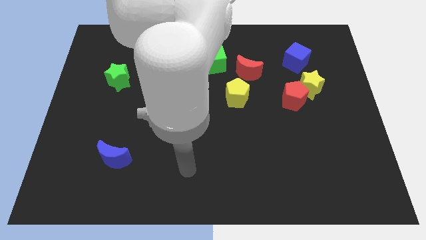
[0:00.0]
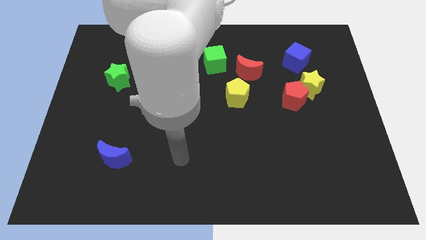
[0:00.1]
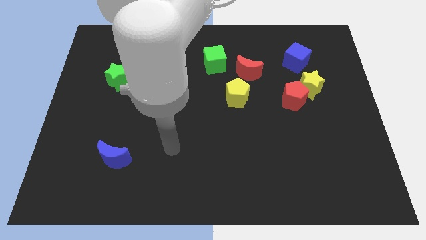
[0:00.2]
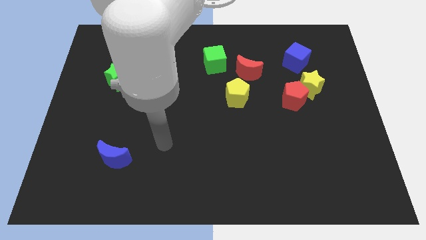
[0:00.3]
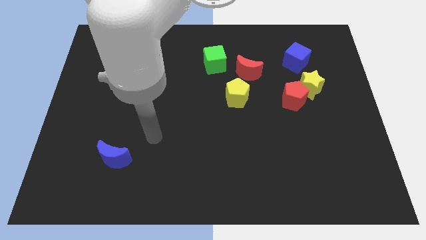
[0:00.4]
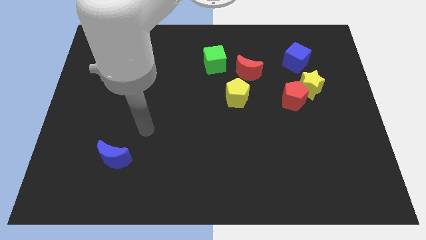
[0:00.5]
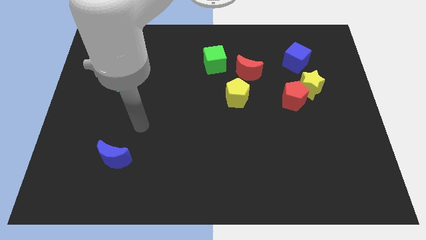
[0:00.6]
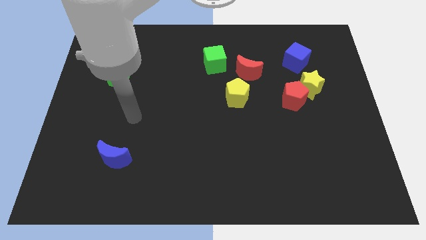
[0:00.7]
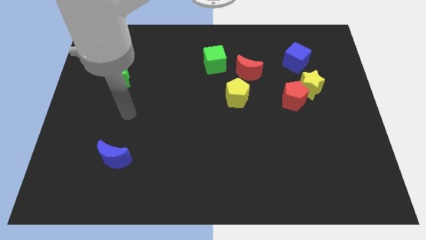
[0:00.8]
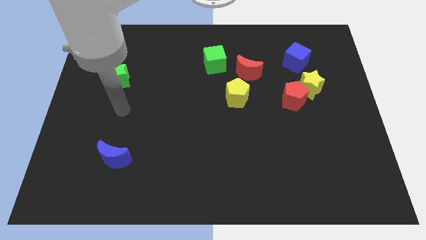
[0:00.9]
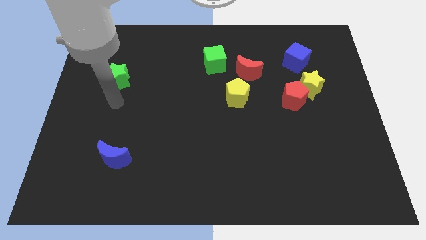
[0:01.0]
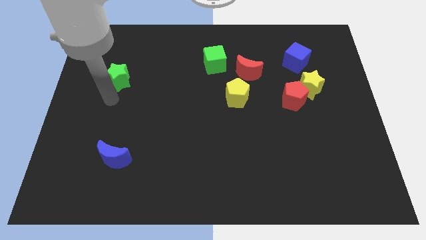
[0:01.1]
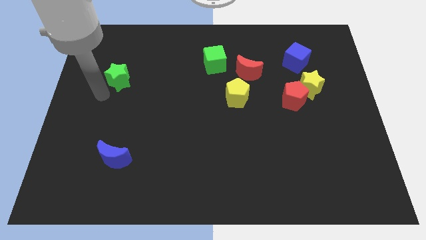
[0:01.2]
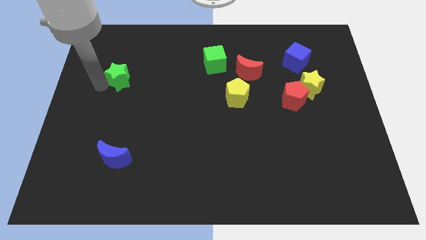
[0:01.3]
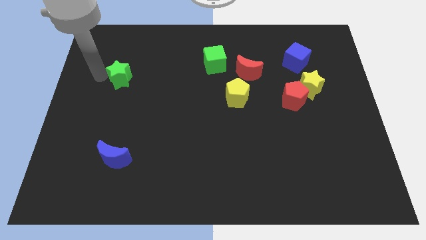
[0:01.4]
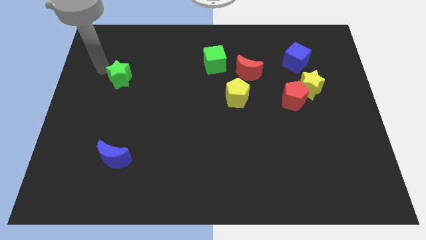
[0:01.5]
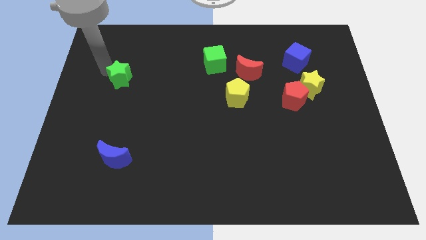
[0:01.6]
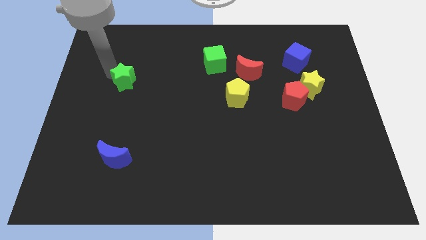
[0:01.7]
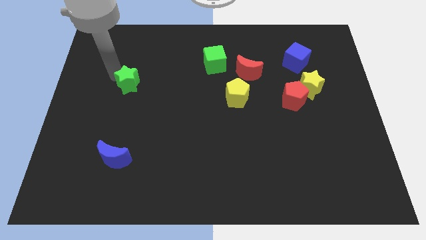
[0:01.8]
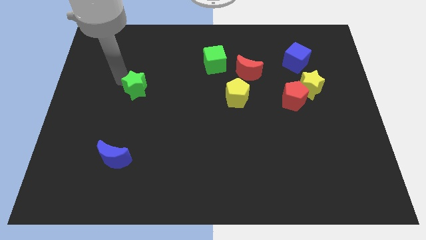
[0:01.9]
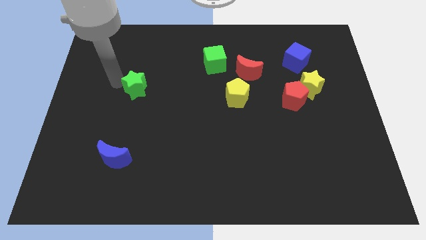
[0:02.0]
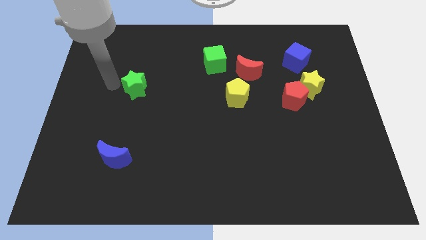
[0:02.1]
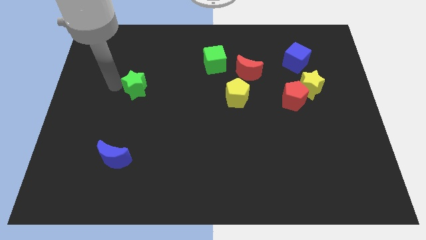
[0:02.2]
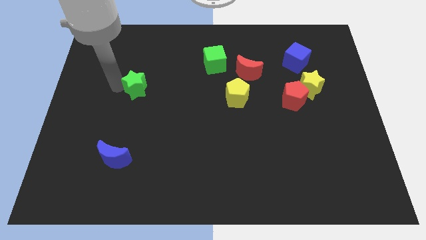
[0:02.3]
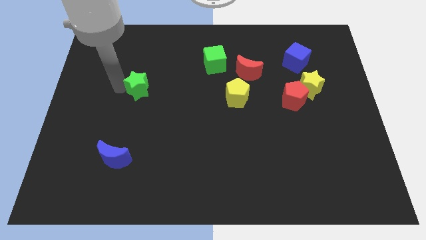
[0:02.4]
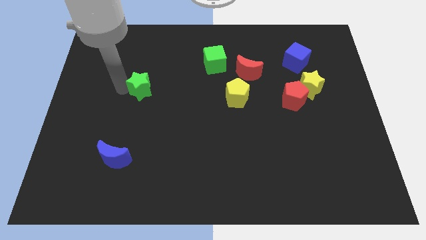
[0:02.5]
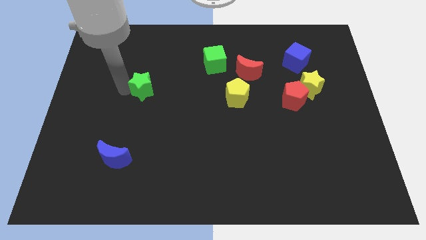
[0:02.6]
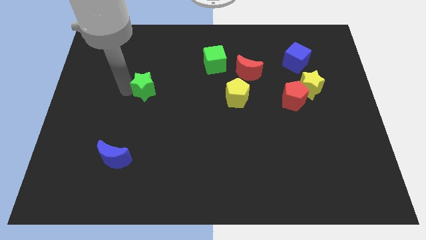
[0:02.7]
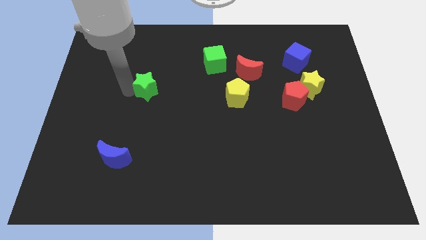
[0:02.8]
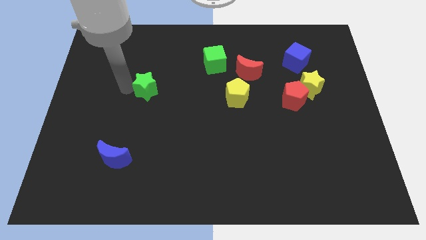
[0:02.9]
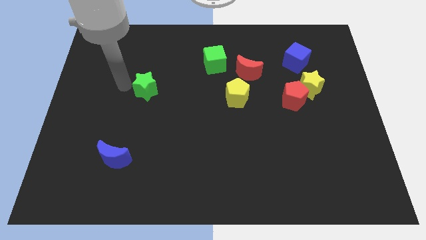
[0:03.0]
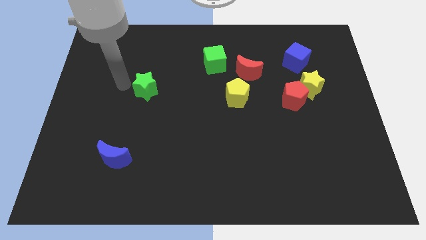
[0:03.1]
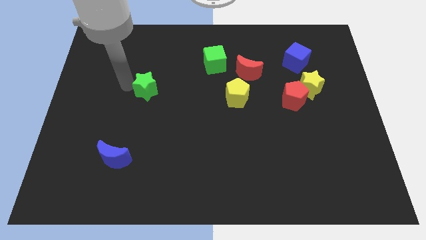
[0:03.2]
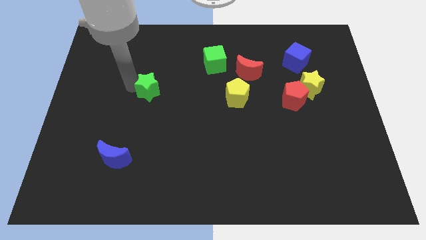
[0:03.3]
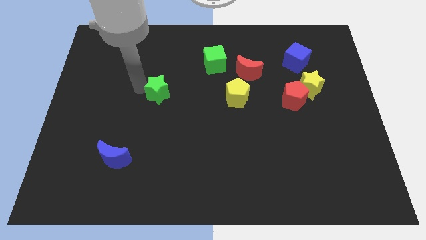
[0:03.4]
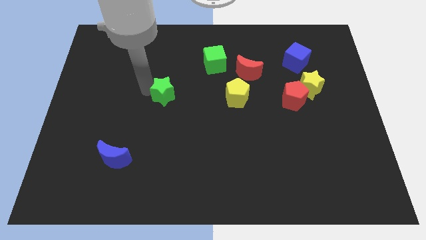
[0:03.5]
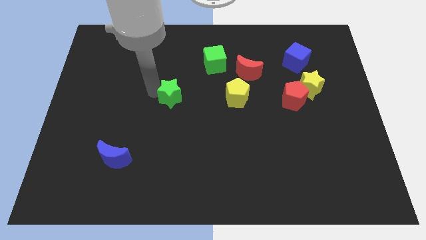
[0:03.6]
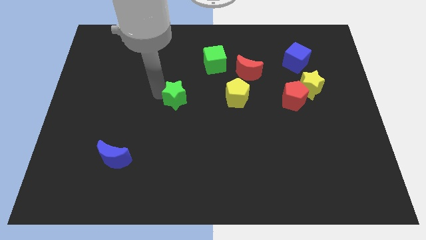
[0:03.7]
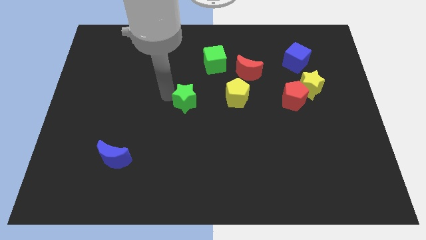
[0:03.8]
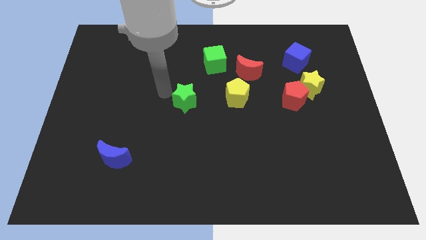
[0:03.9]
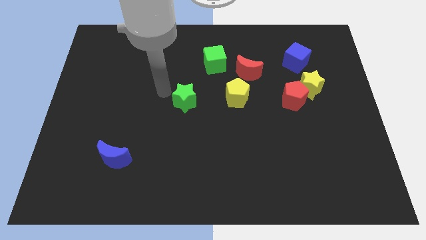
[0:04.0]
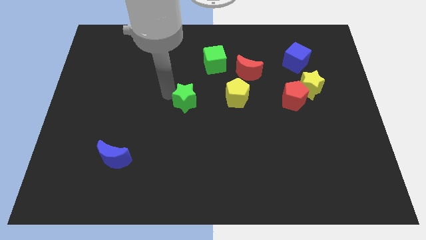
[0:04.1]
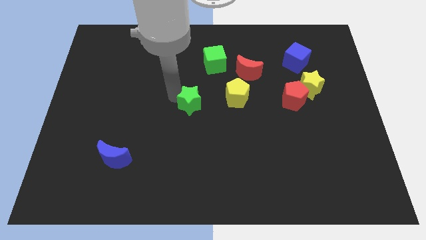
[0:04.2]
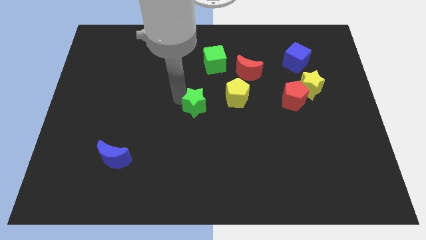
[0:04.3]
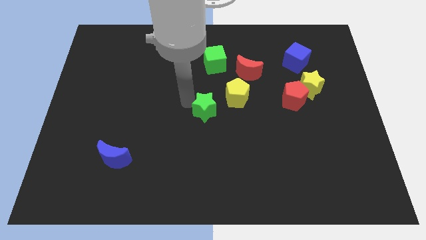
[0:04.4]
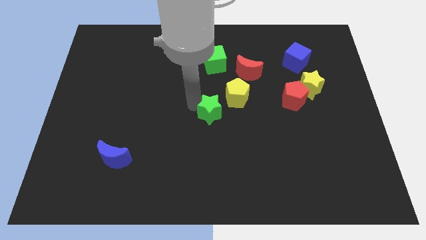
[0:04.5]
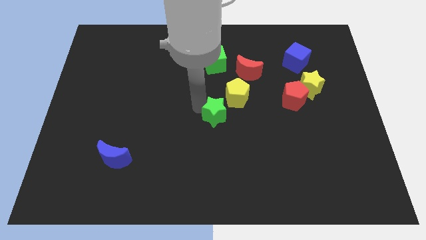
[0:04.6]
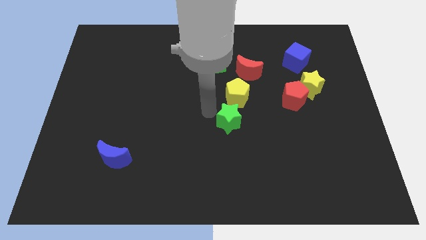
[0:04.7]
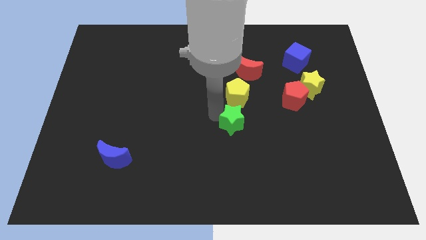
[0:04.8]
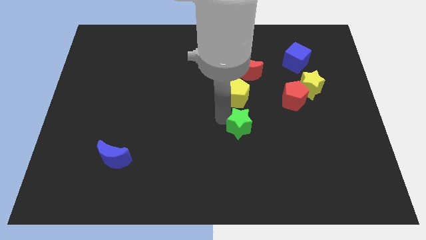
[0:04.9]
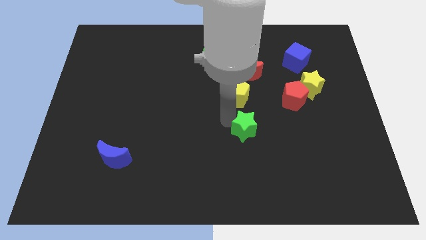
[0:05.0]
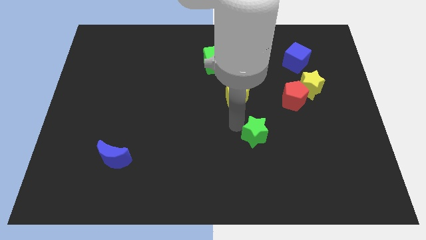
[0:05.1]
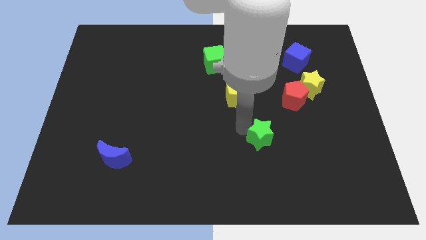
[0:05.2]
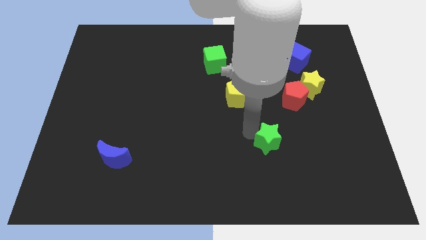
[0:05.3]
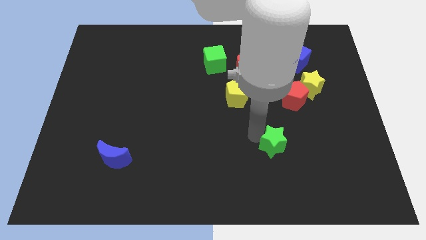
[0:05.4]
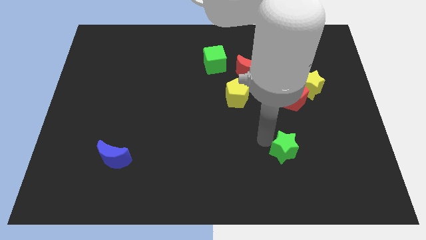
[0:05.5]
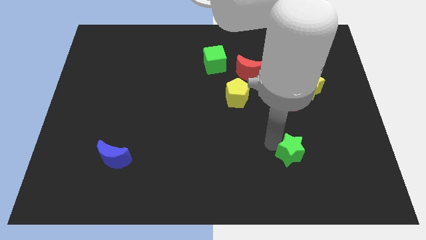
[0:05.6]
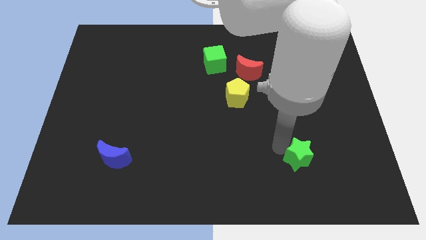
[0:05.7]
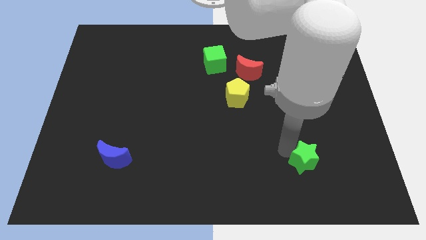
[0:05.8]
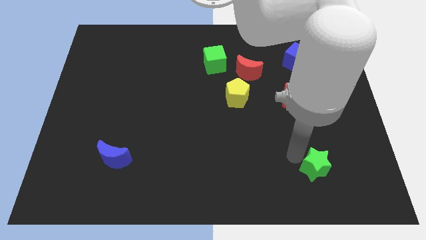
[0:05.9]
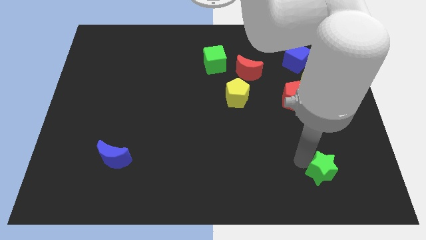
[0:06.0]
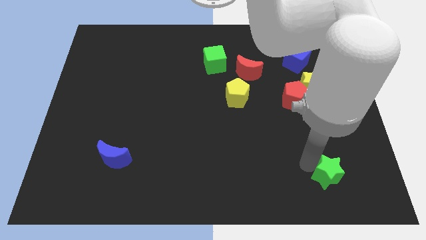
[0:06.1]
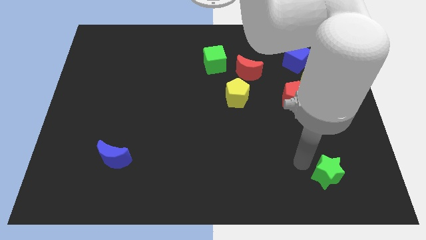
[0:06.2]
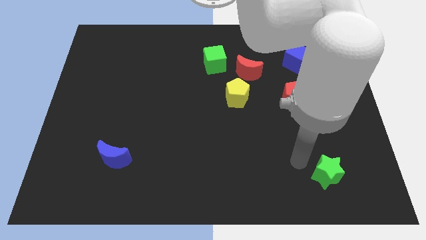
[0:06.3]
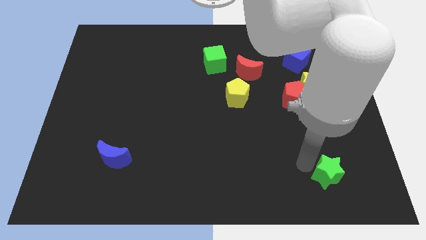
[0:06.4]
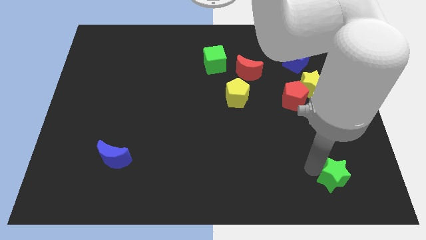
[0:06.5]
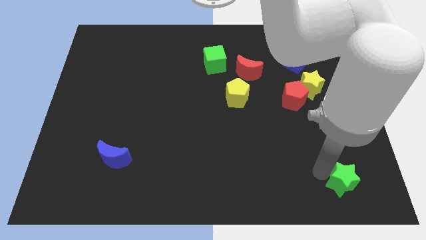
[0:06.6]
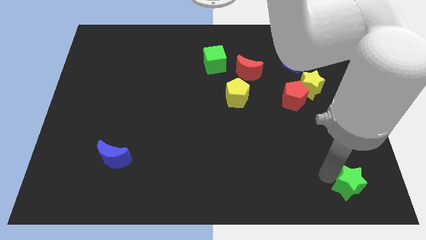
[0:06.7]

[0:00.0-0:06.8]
move the green star to the bottom right of the board
